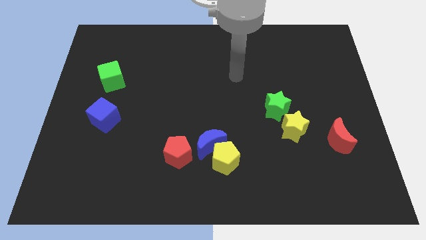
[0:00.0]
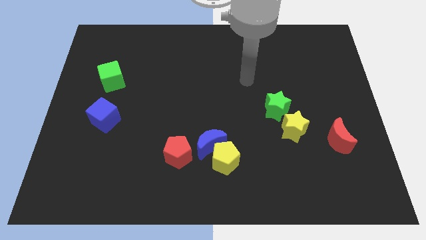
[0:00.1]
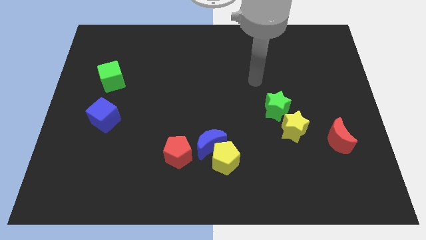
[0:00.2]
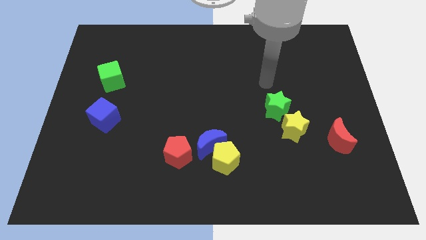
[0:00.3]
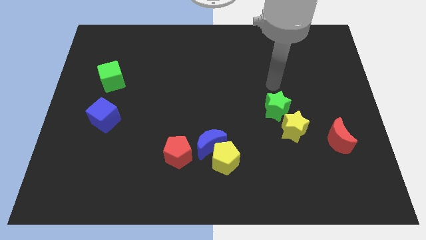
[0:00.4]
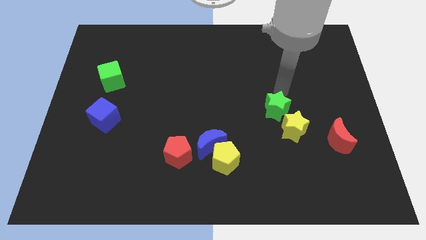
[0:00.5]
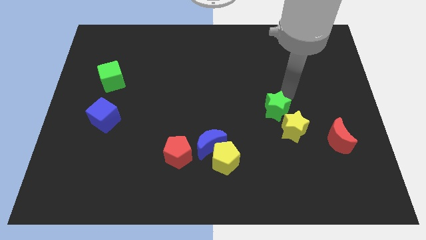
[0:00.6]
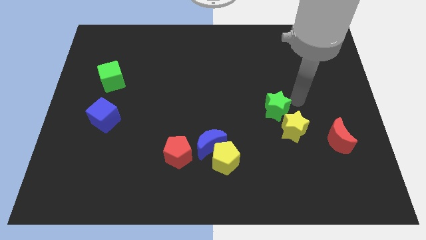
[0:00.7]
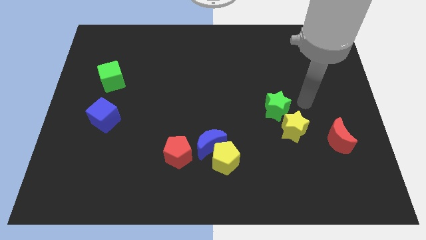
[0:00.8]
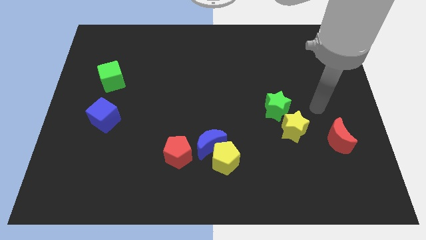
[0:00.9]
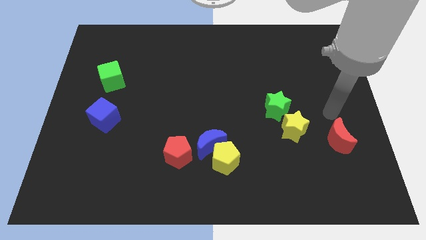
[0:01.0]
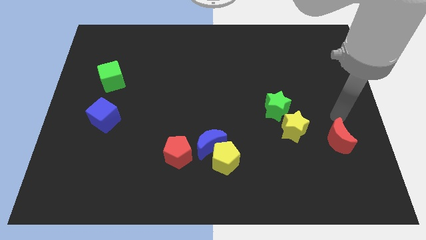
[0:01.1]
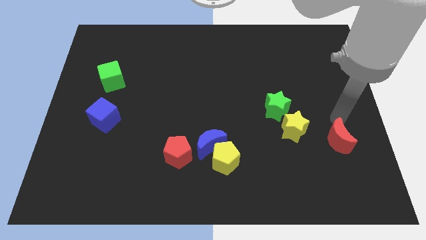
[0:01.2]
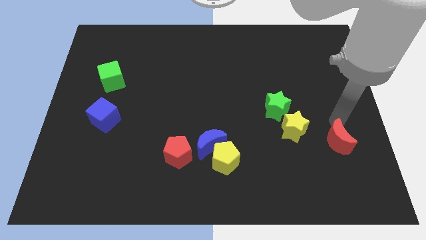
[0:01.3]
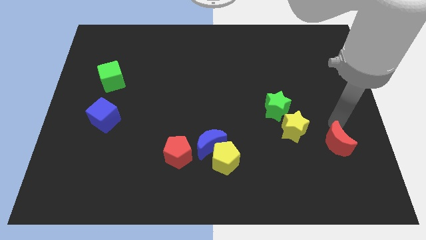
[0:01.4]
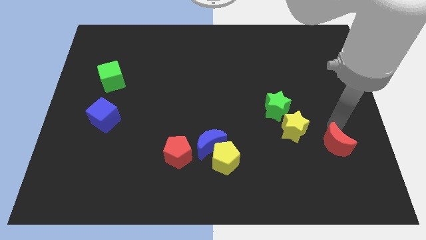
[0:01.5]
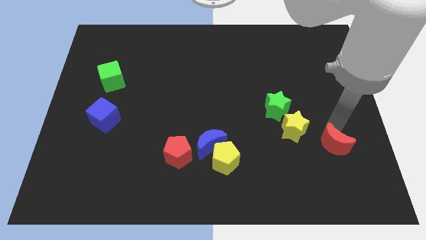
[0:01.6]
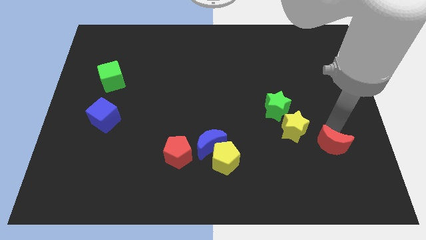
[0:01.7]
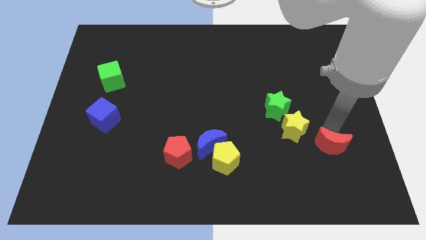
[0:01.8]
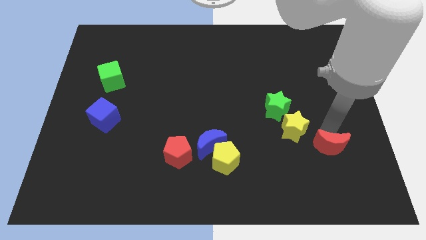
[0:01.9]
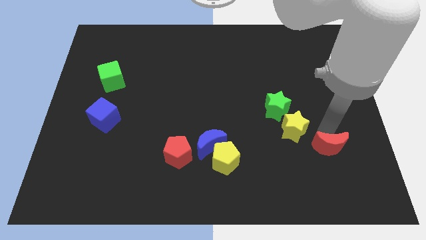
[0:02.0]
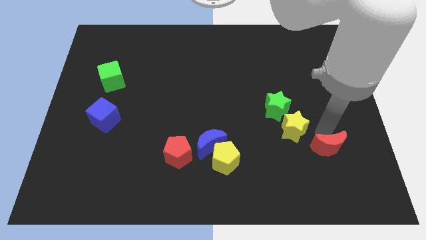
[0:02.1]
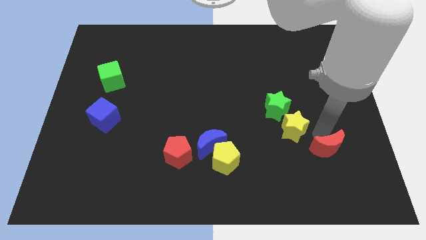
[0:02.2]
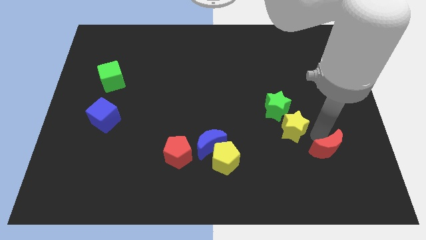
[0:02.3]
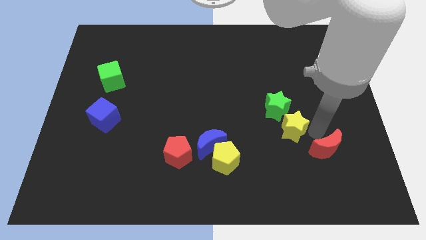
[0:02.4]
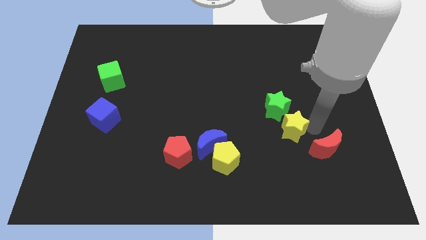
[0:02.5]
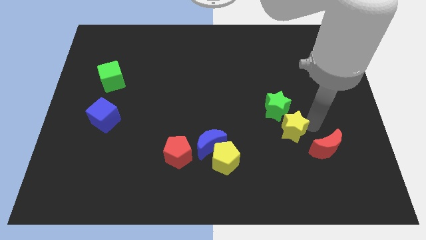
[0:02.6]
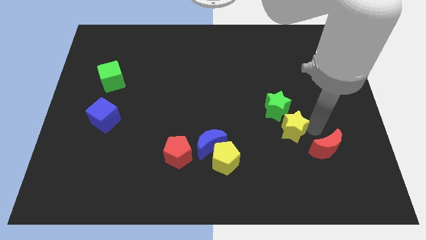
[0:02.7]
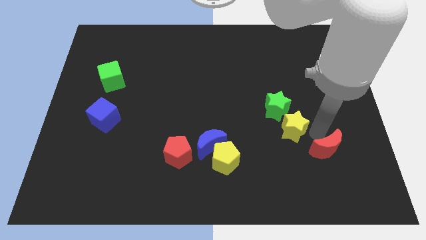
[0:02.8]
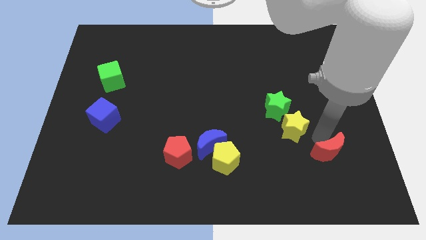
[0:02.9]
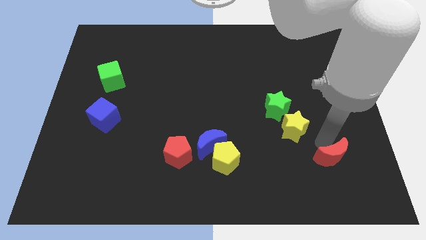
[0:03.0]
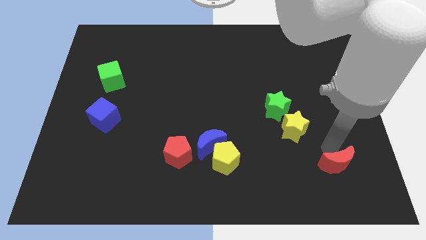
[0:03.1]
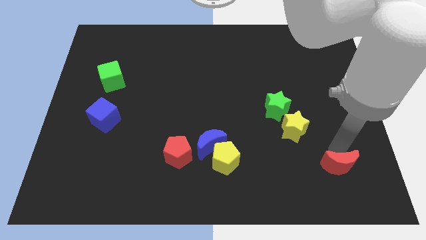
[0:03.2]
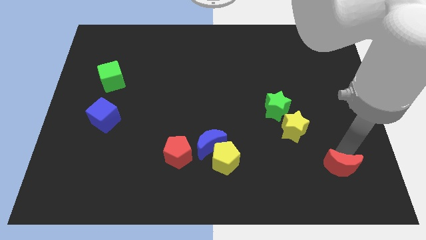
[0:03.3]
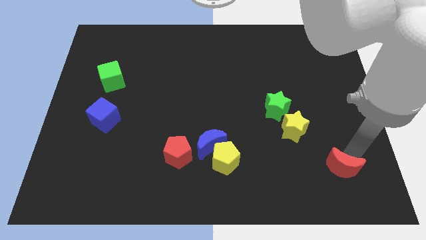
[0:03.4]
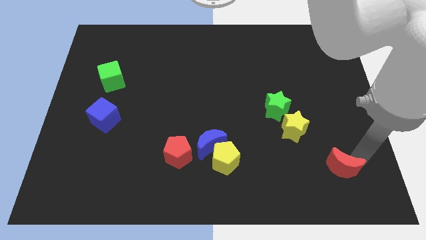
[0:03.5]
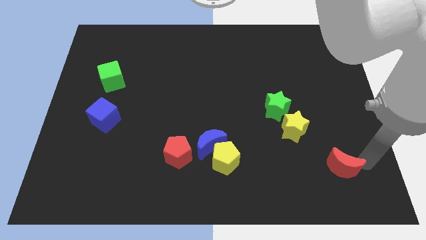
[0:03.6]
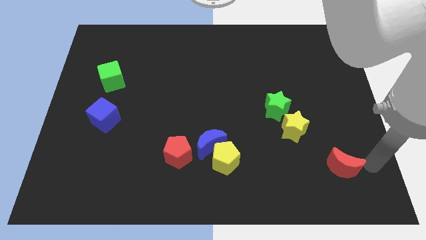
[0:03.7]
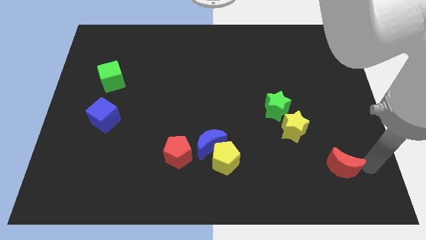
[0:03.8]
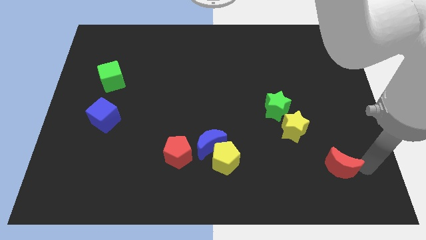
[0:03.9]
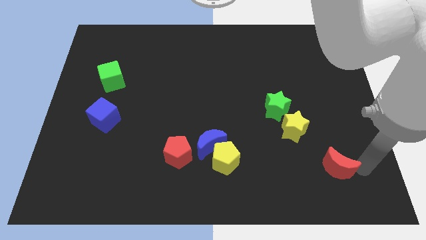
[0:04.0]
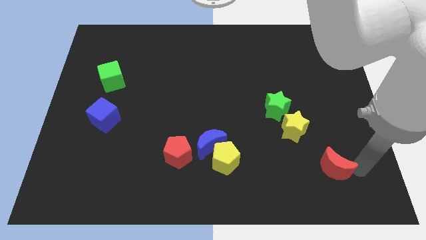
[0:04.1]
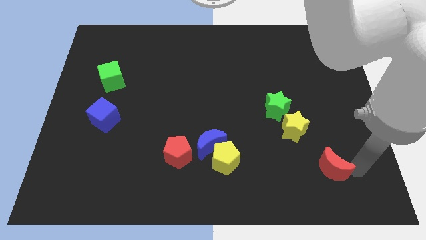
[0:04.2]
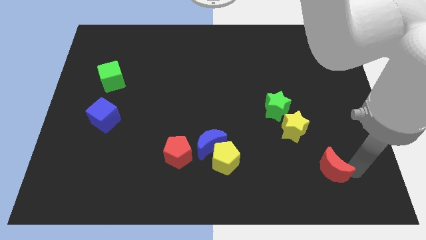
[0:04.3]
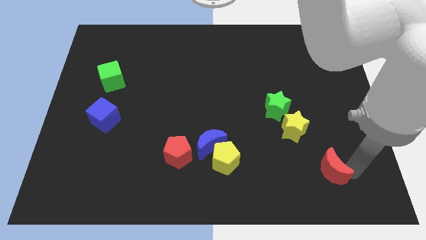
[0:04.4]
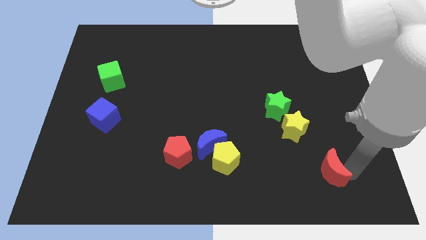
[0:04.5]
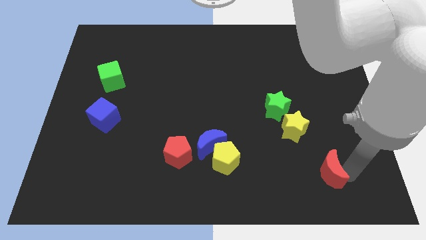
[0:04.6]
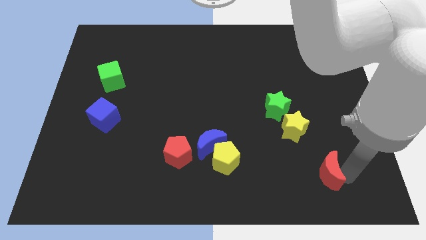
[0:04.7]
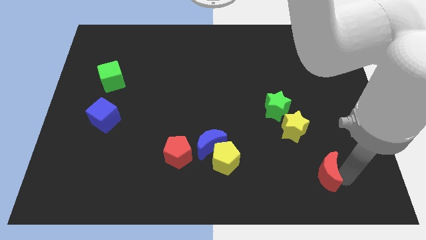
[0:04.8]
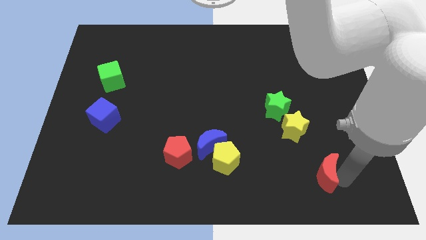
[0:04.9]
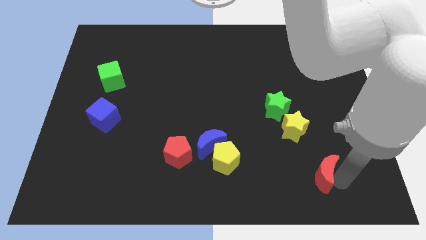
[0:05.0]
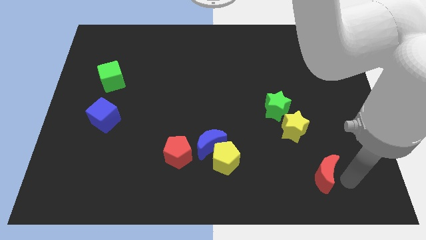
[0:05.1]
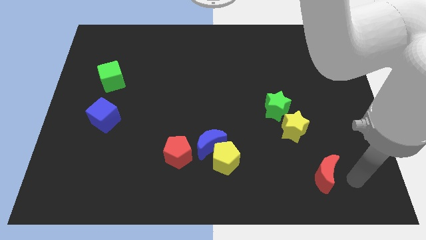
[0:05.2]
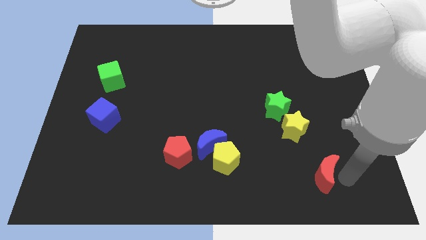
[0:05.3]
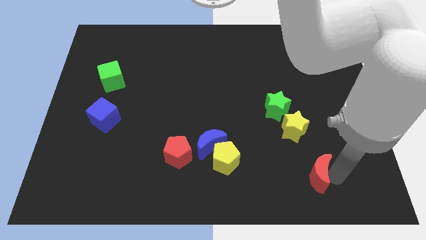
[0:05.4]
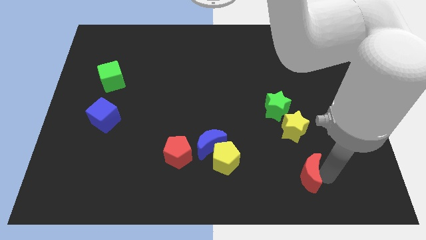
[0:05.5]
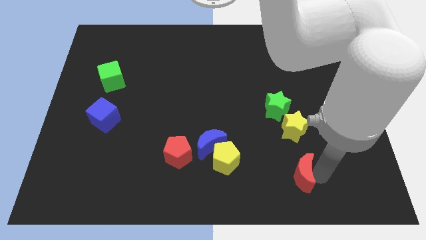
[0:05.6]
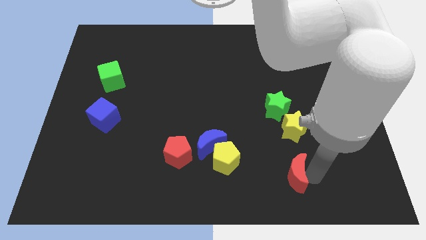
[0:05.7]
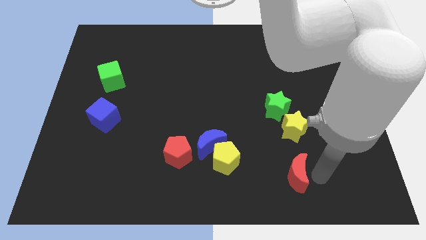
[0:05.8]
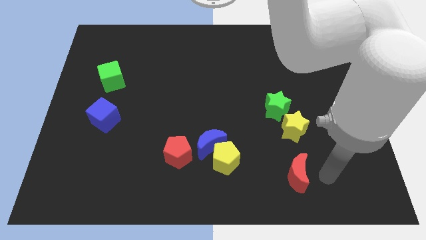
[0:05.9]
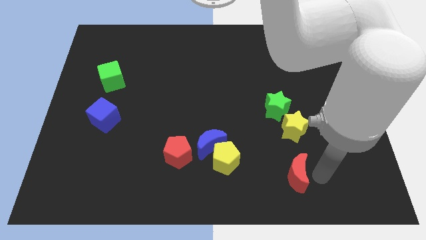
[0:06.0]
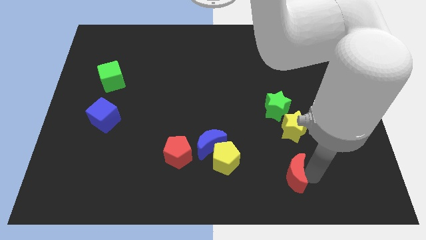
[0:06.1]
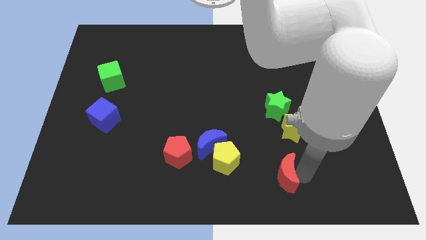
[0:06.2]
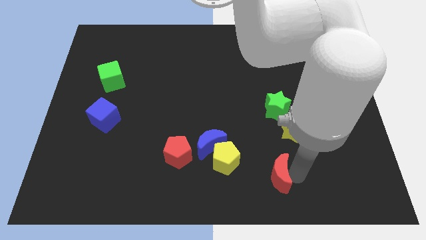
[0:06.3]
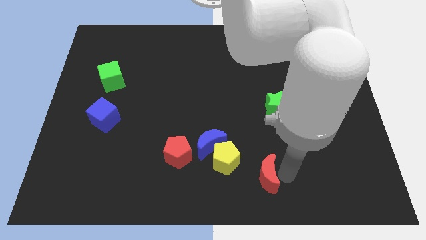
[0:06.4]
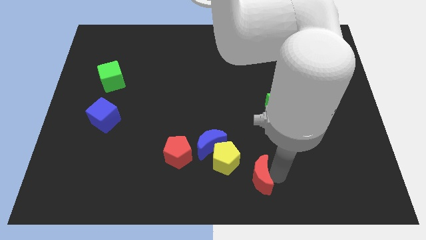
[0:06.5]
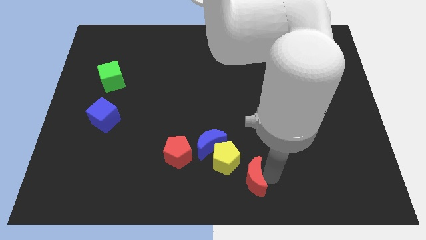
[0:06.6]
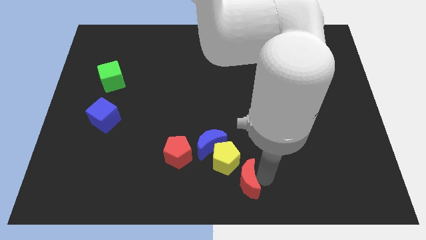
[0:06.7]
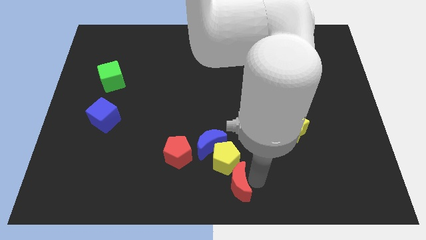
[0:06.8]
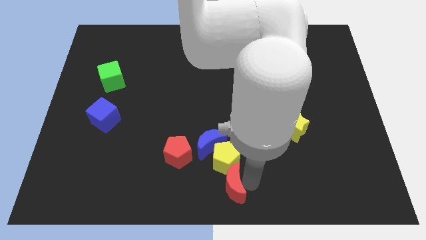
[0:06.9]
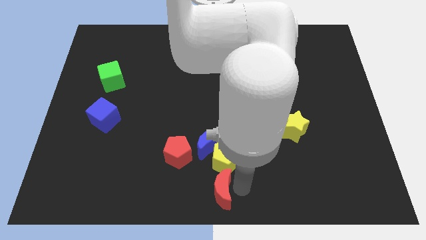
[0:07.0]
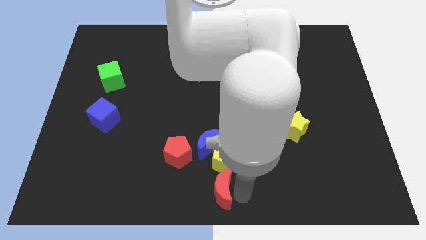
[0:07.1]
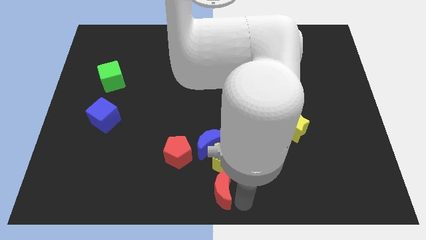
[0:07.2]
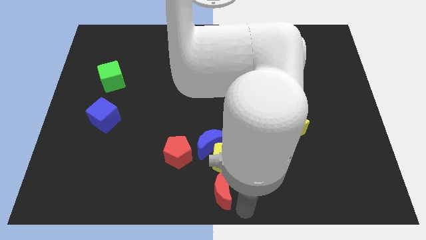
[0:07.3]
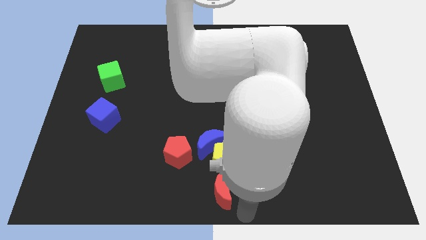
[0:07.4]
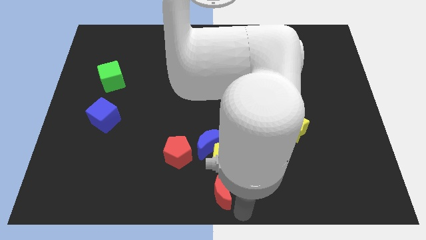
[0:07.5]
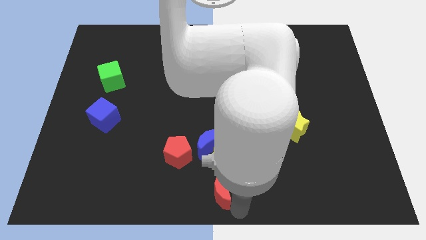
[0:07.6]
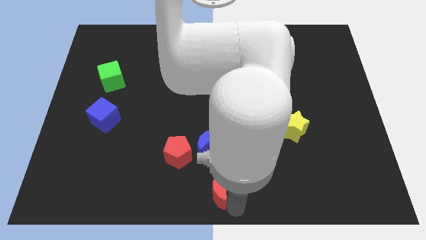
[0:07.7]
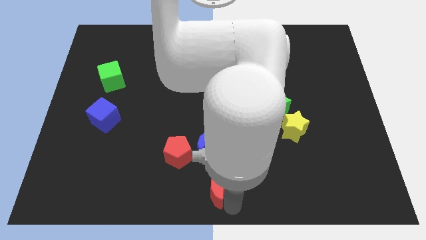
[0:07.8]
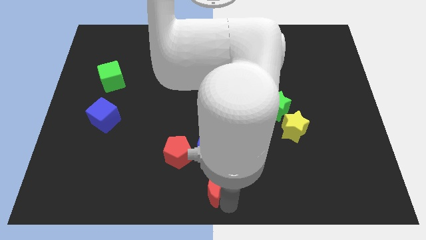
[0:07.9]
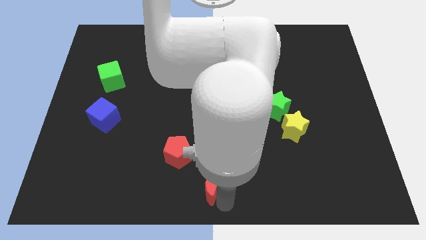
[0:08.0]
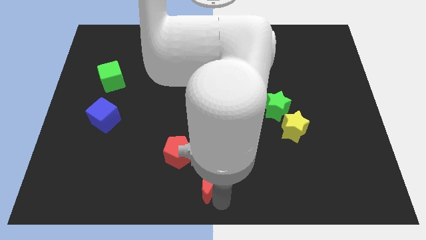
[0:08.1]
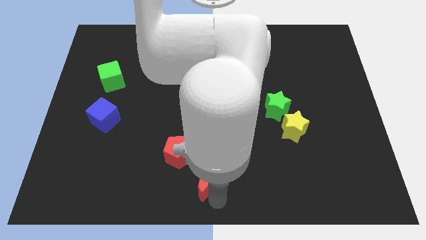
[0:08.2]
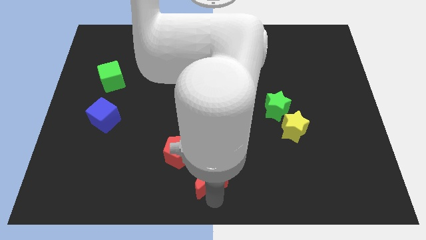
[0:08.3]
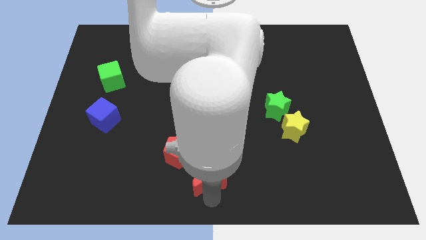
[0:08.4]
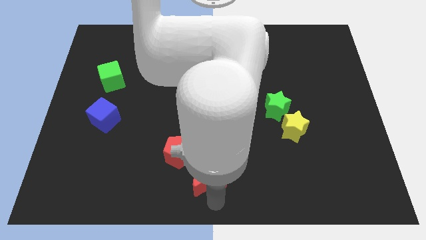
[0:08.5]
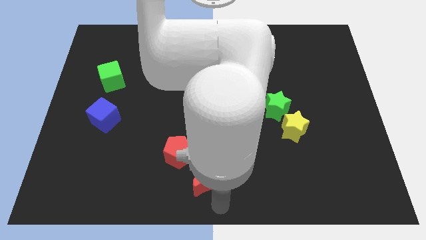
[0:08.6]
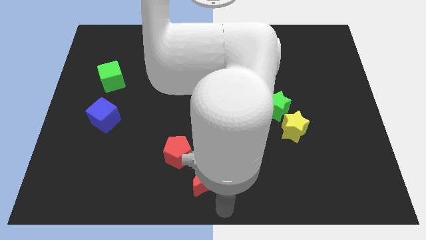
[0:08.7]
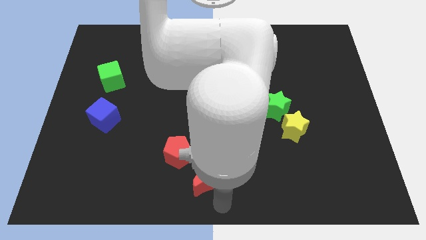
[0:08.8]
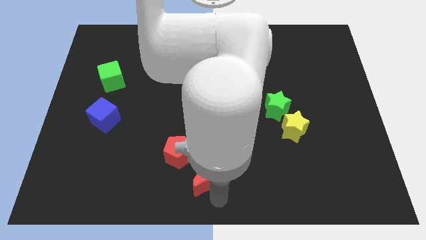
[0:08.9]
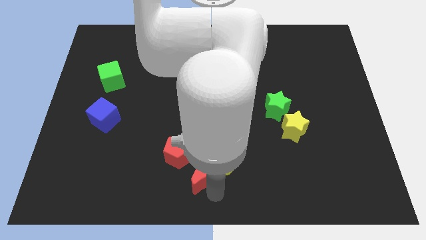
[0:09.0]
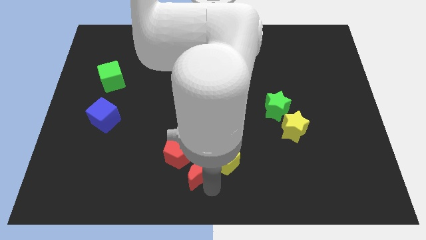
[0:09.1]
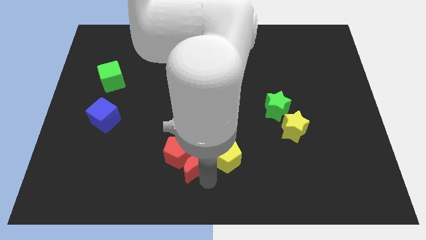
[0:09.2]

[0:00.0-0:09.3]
push the red moon towards the red pentagon
